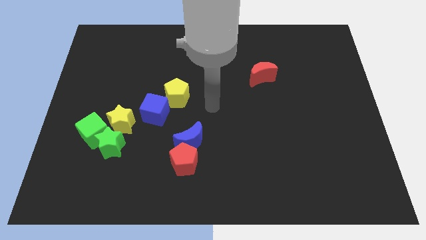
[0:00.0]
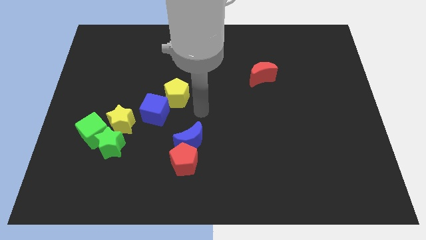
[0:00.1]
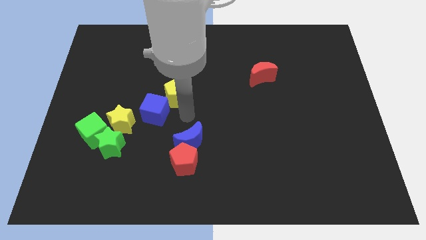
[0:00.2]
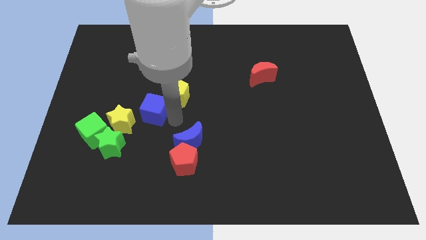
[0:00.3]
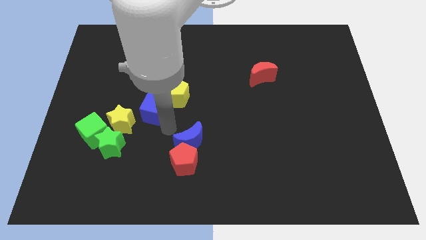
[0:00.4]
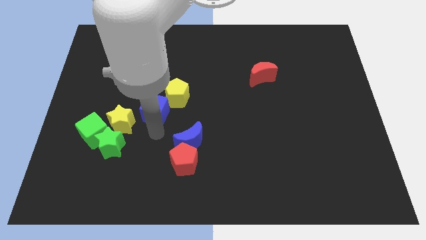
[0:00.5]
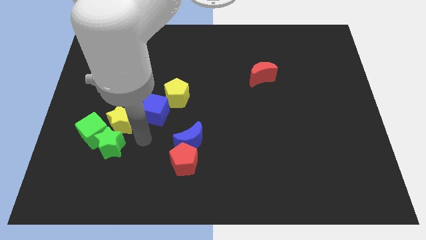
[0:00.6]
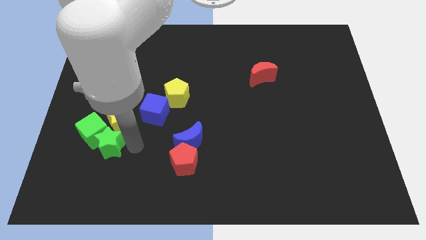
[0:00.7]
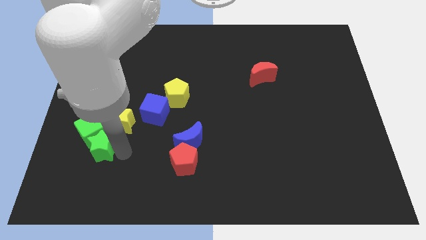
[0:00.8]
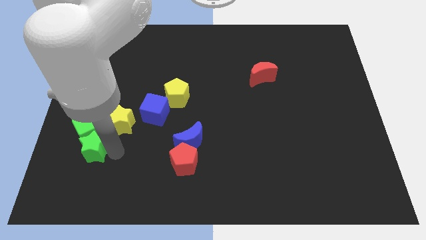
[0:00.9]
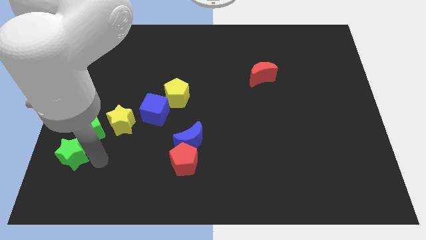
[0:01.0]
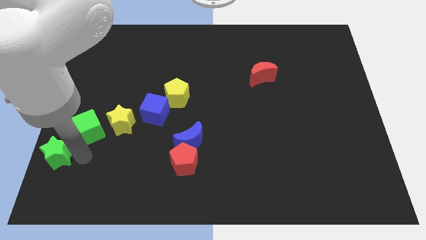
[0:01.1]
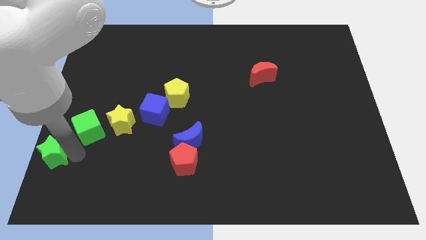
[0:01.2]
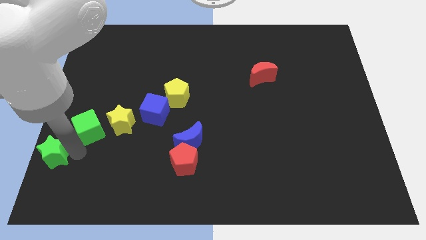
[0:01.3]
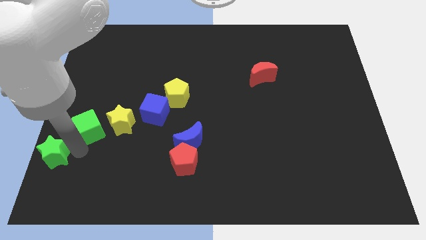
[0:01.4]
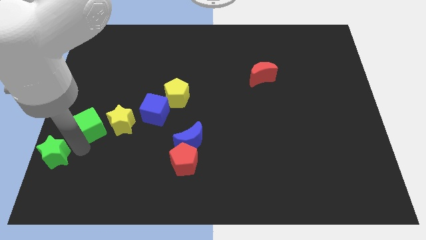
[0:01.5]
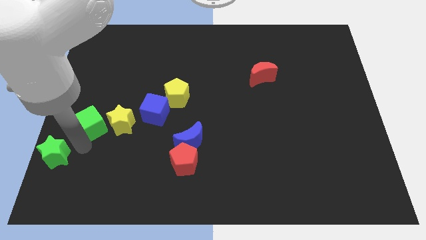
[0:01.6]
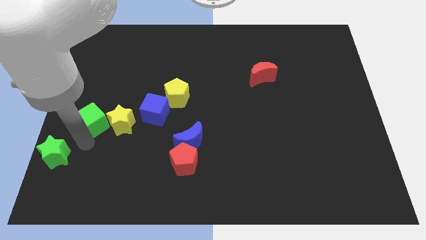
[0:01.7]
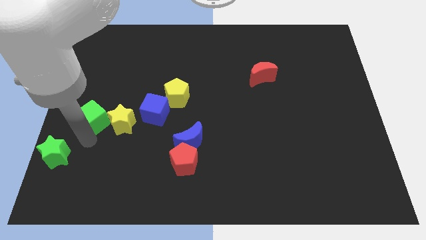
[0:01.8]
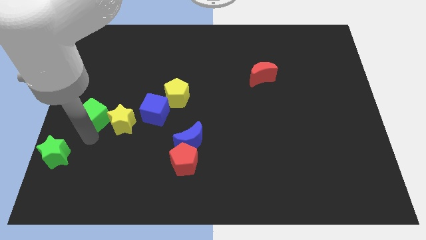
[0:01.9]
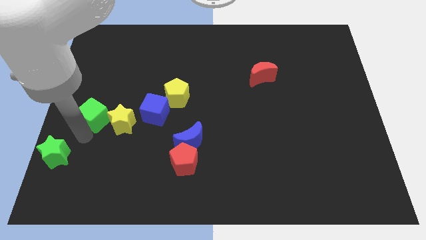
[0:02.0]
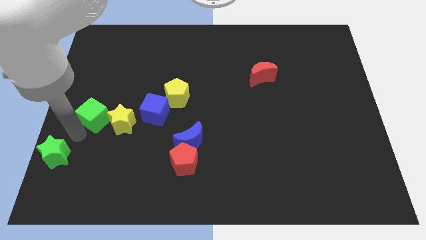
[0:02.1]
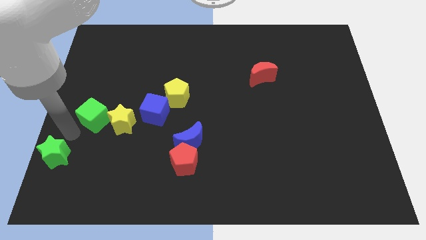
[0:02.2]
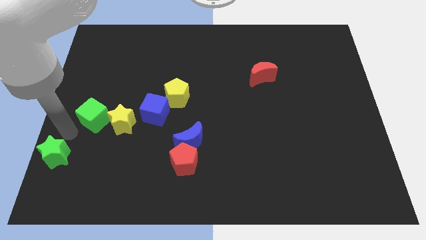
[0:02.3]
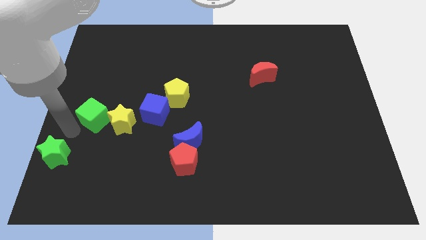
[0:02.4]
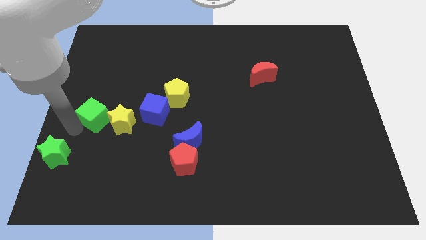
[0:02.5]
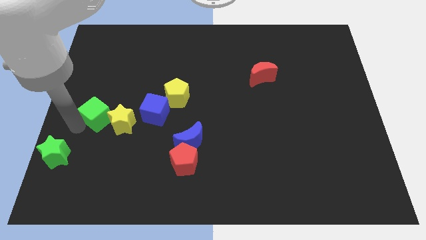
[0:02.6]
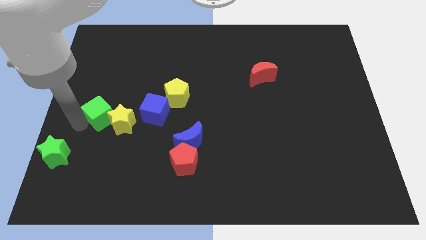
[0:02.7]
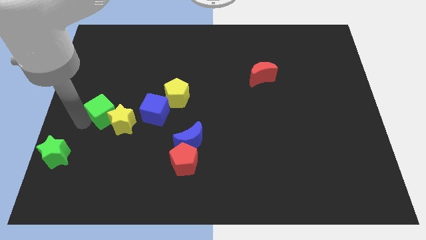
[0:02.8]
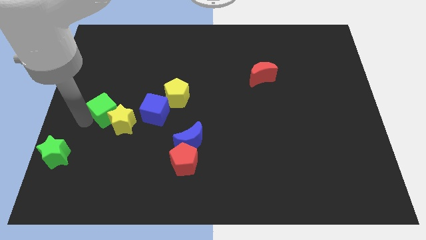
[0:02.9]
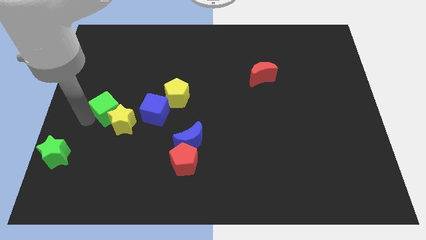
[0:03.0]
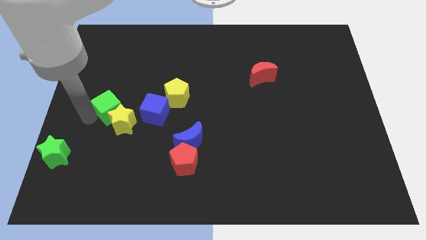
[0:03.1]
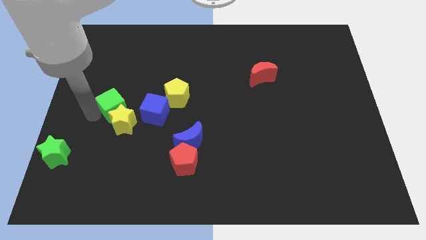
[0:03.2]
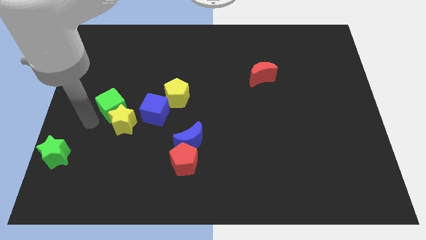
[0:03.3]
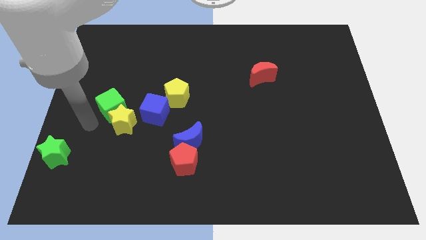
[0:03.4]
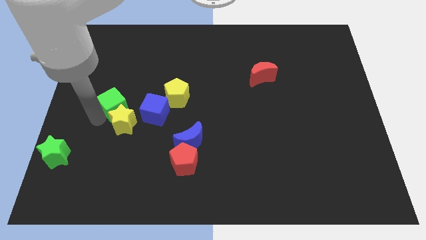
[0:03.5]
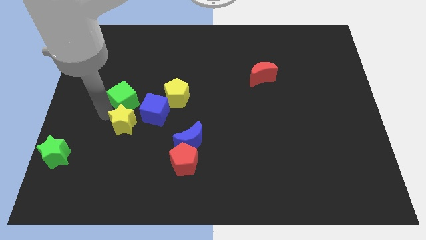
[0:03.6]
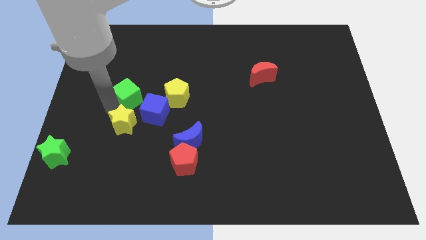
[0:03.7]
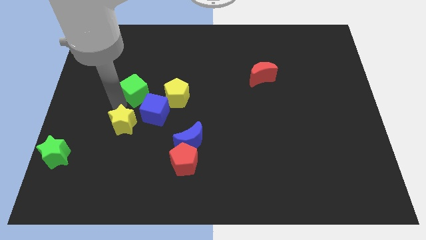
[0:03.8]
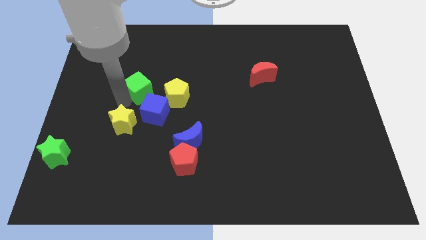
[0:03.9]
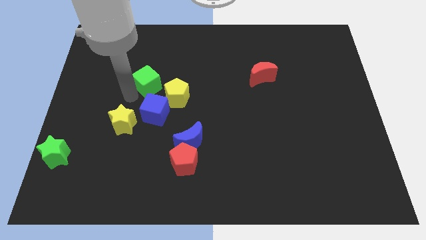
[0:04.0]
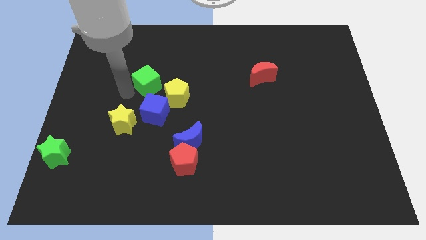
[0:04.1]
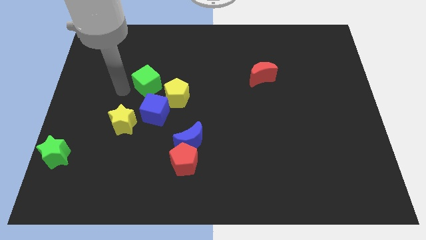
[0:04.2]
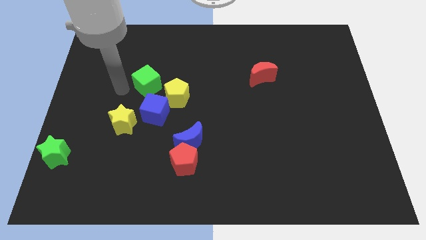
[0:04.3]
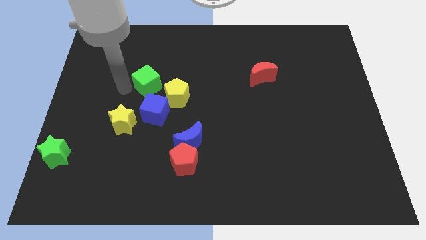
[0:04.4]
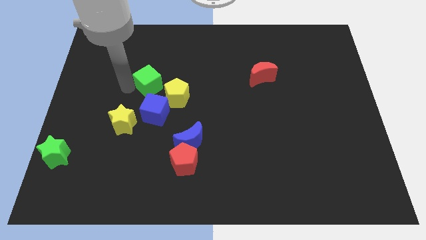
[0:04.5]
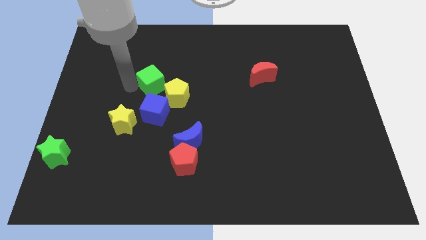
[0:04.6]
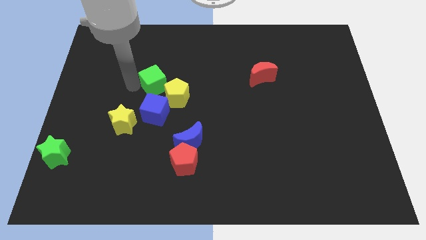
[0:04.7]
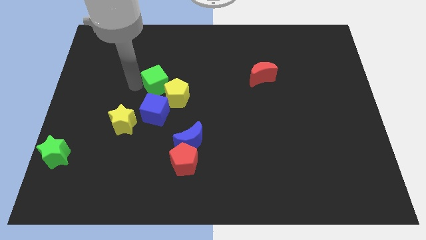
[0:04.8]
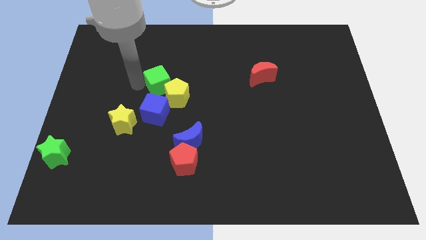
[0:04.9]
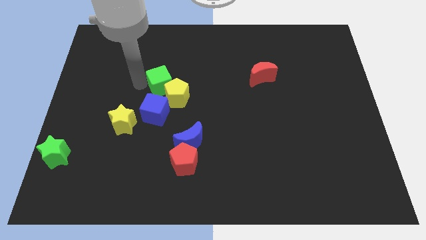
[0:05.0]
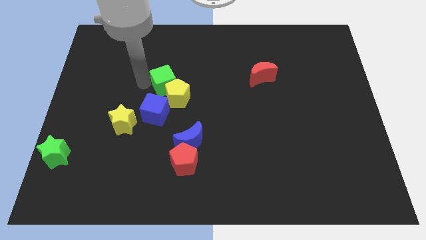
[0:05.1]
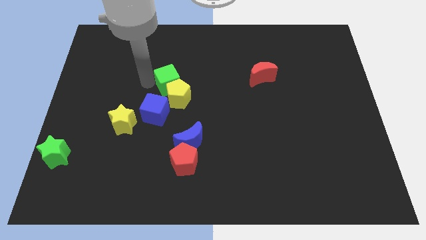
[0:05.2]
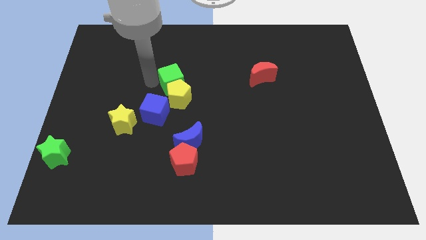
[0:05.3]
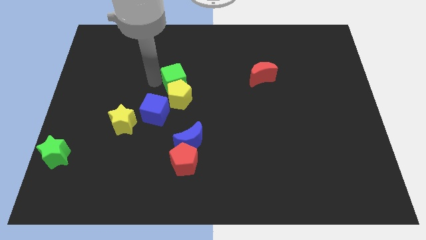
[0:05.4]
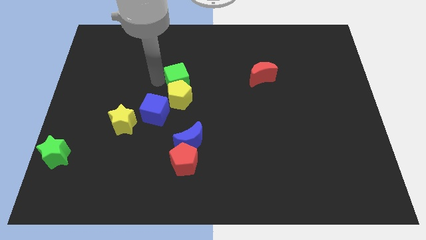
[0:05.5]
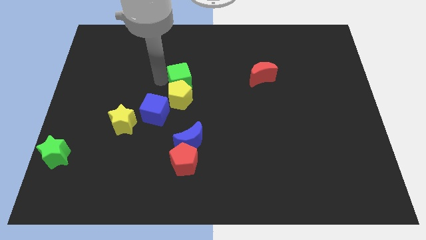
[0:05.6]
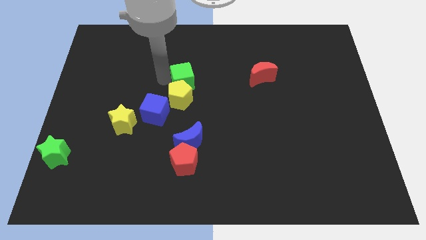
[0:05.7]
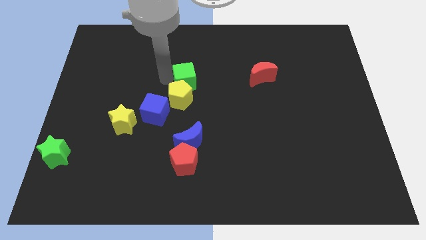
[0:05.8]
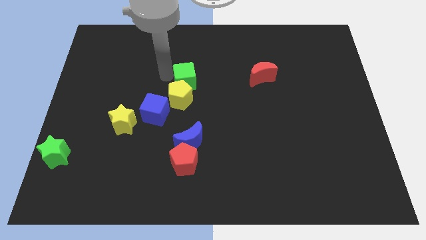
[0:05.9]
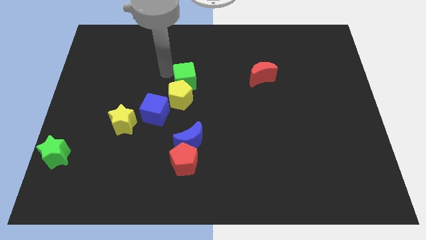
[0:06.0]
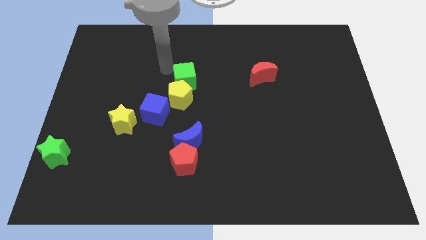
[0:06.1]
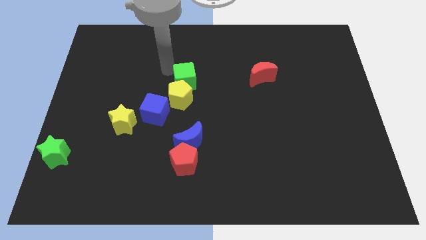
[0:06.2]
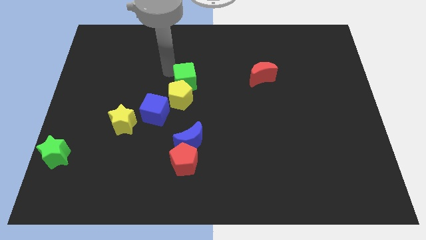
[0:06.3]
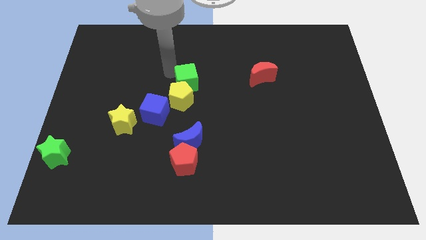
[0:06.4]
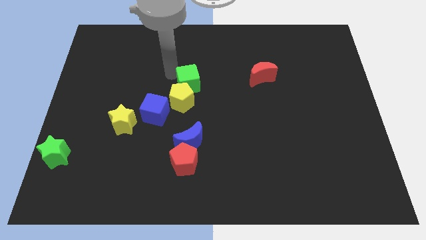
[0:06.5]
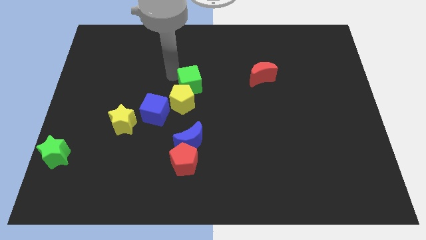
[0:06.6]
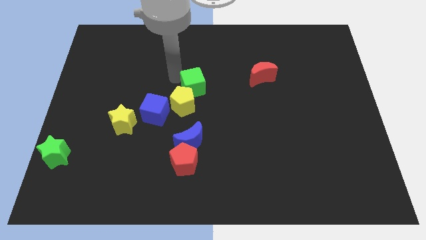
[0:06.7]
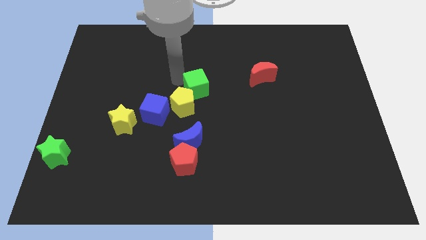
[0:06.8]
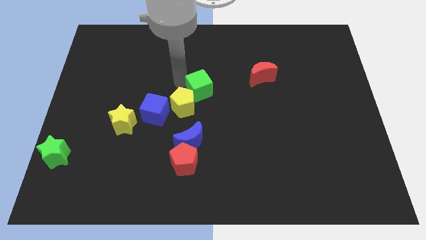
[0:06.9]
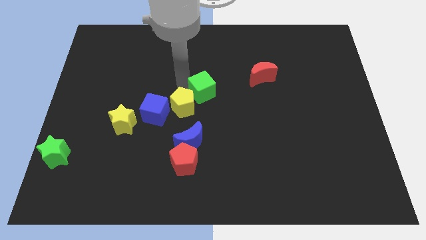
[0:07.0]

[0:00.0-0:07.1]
push the green cube to the right of the yellow pentagon
